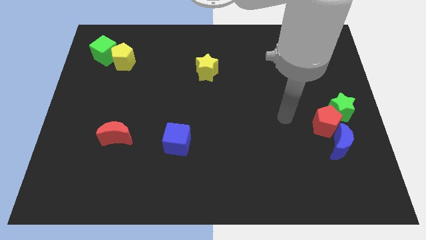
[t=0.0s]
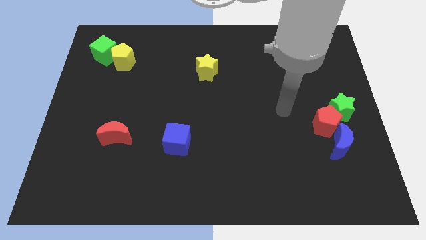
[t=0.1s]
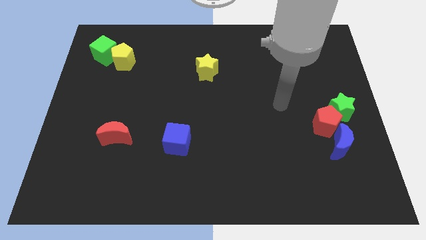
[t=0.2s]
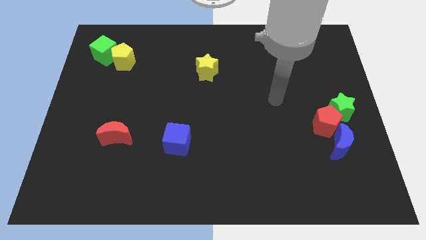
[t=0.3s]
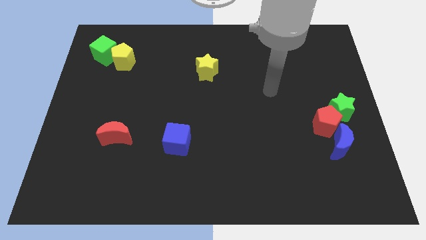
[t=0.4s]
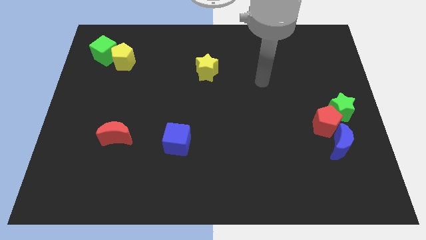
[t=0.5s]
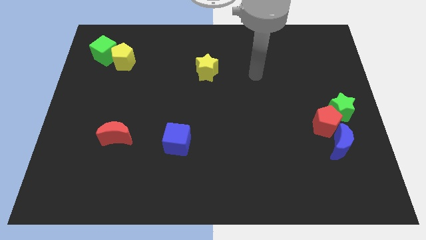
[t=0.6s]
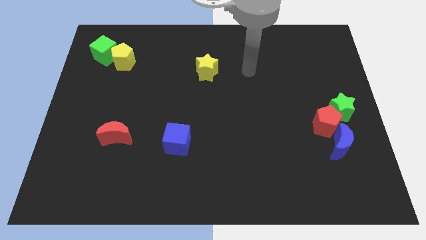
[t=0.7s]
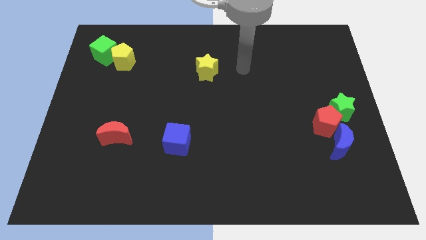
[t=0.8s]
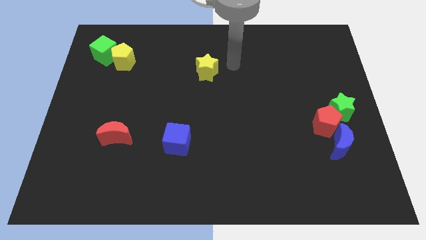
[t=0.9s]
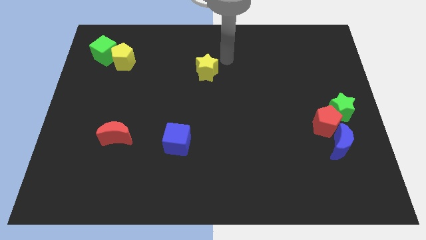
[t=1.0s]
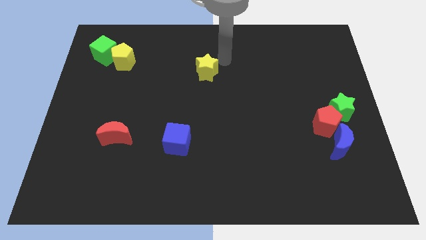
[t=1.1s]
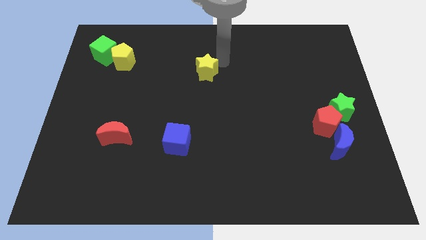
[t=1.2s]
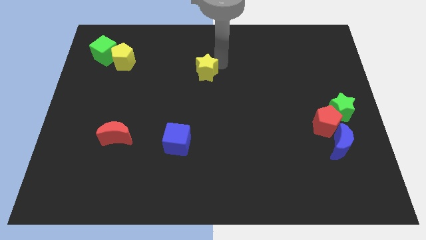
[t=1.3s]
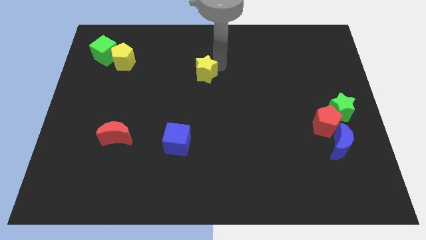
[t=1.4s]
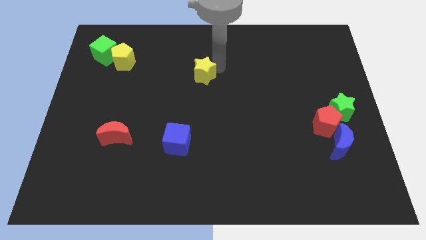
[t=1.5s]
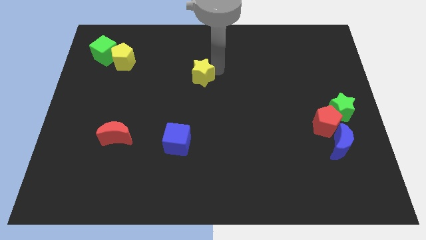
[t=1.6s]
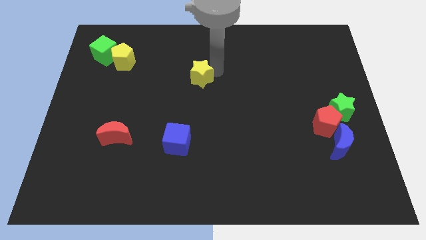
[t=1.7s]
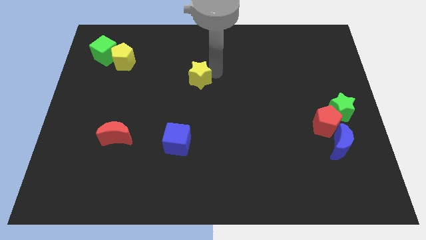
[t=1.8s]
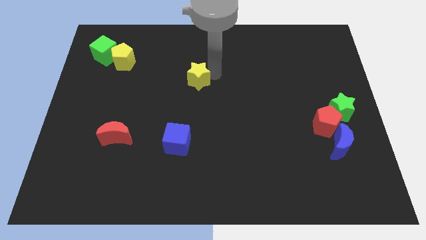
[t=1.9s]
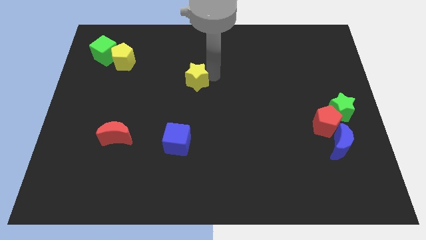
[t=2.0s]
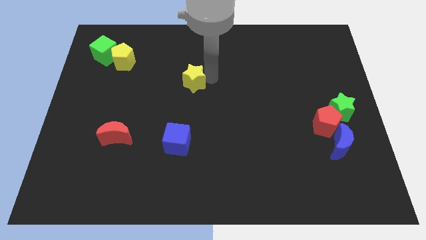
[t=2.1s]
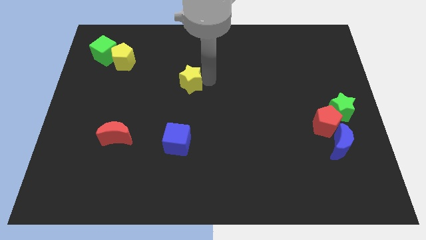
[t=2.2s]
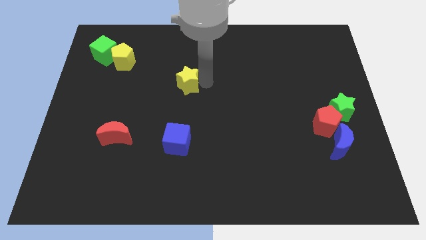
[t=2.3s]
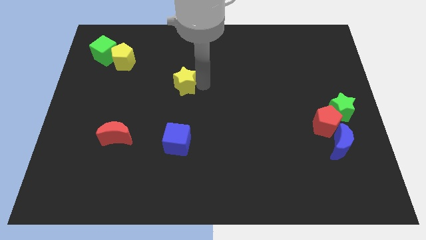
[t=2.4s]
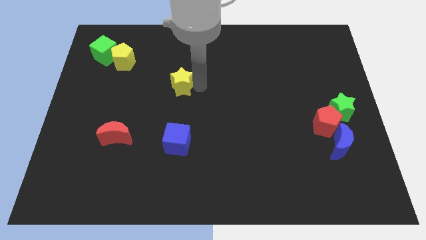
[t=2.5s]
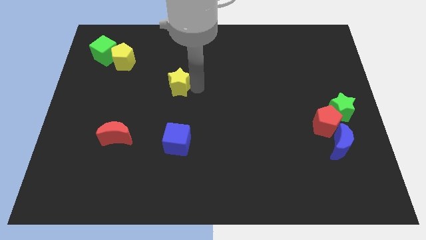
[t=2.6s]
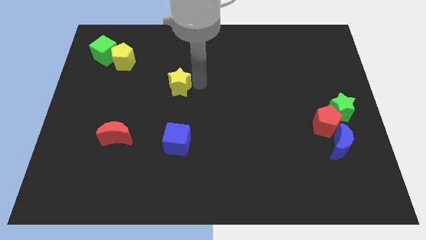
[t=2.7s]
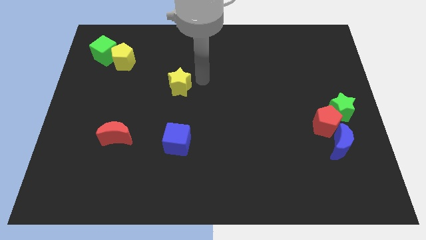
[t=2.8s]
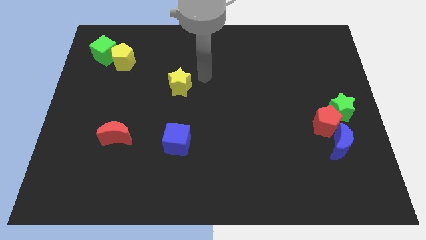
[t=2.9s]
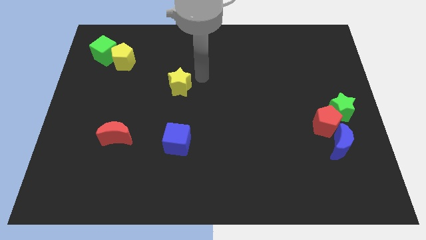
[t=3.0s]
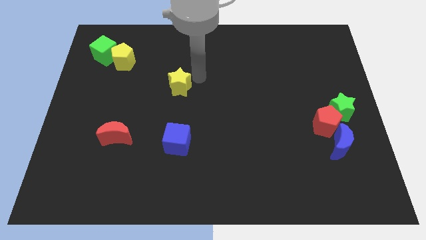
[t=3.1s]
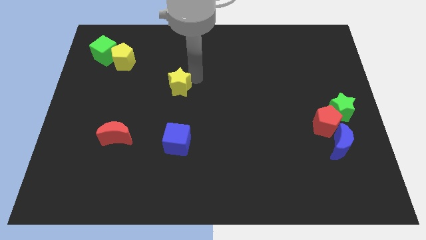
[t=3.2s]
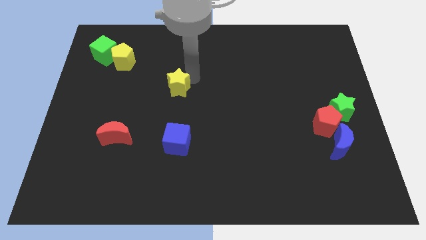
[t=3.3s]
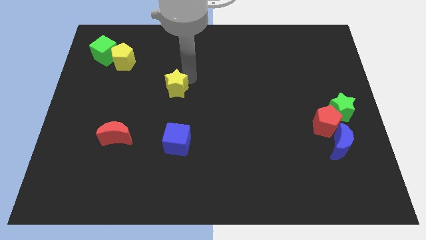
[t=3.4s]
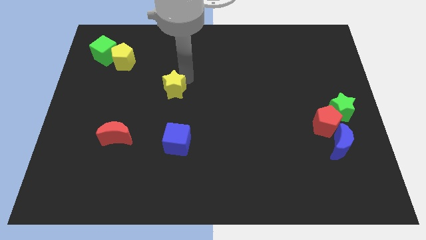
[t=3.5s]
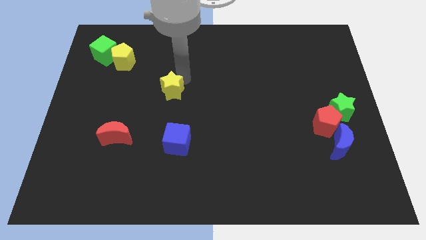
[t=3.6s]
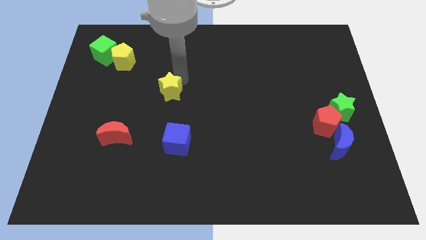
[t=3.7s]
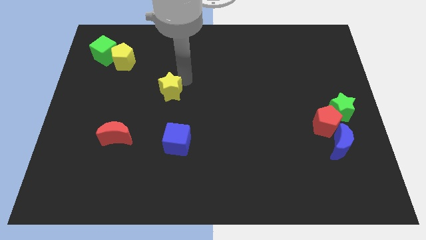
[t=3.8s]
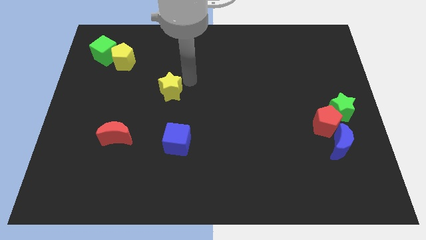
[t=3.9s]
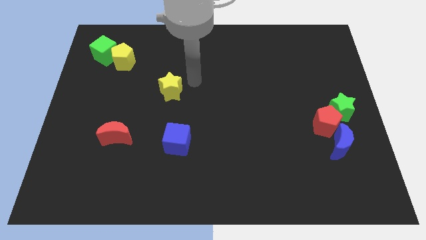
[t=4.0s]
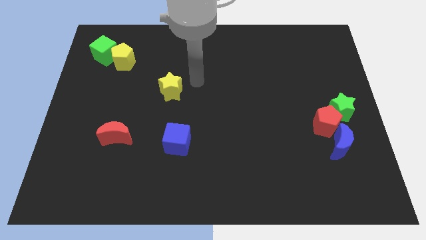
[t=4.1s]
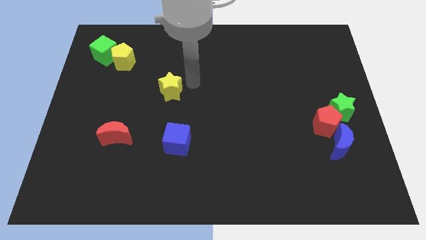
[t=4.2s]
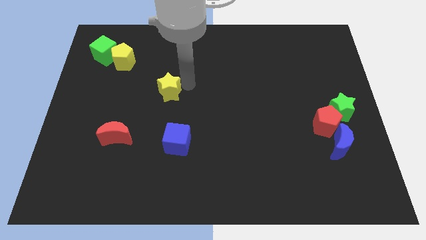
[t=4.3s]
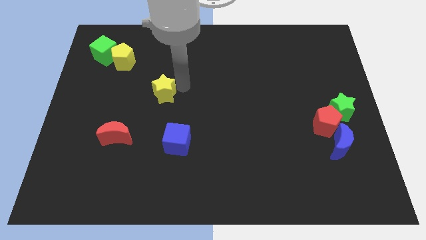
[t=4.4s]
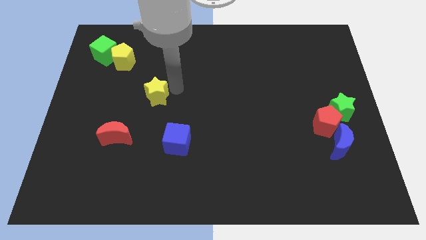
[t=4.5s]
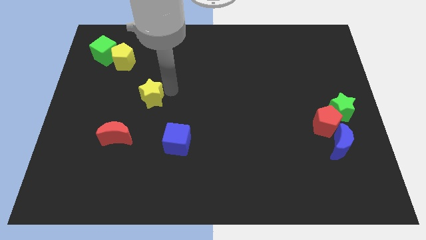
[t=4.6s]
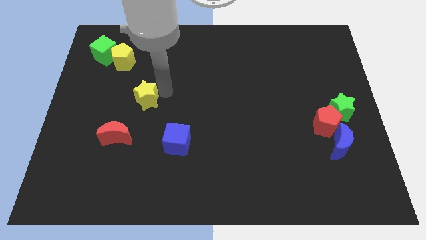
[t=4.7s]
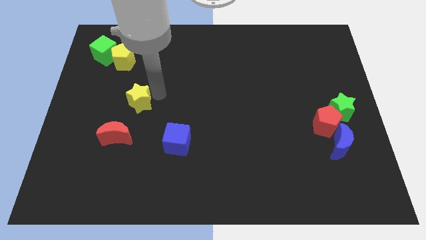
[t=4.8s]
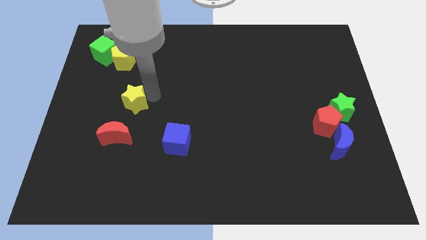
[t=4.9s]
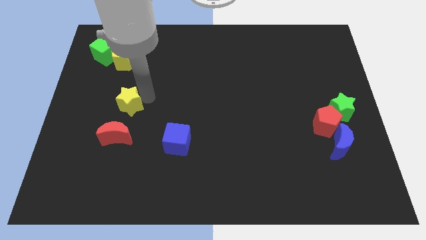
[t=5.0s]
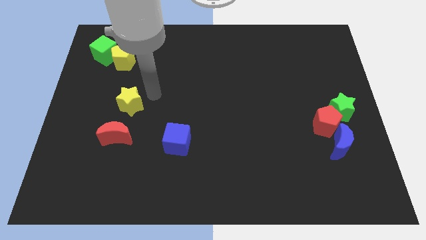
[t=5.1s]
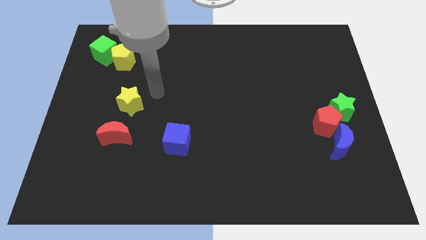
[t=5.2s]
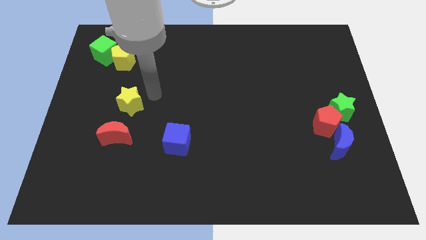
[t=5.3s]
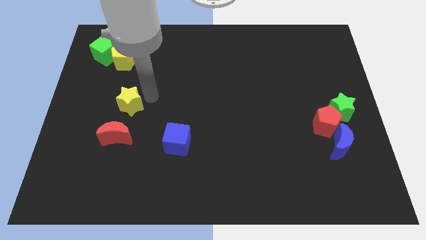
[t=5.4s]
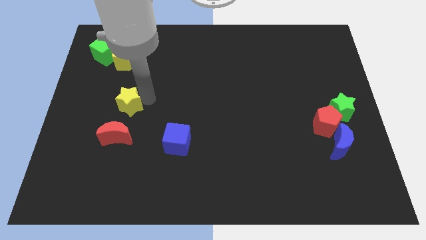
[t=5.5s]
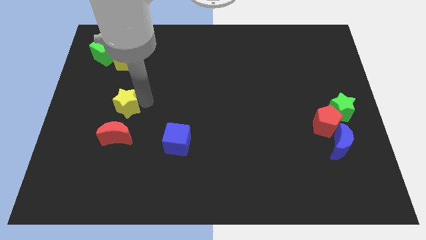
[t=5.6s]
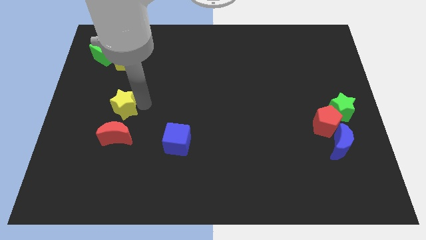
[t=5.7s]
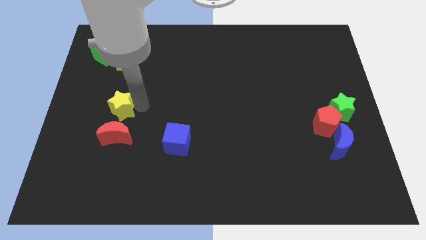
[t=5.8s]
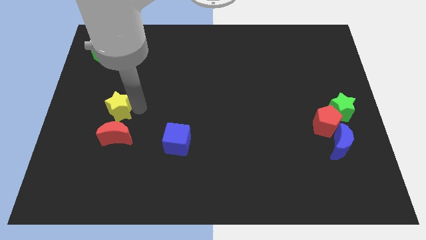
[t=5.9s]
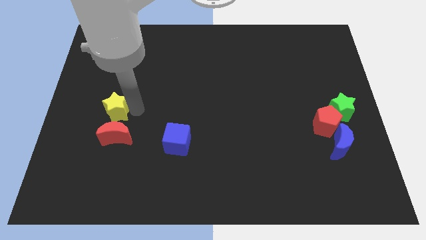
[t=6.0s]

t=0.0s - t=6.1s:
put the yellow star to the top left of the red moon

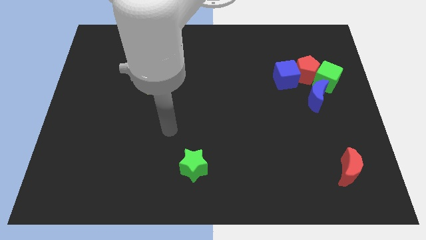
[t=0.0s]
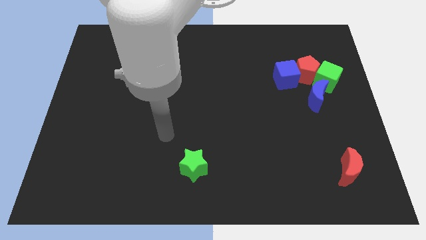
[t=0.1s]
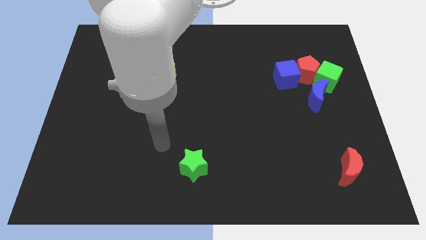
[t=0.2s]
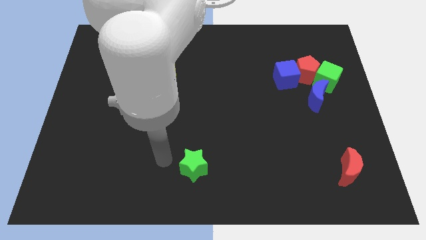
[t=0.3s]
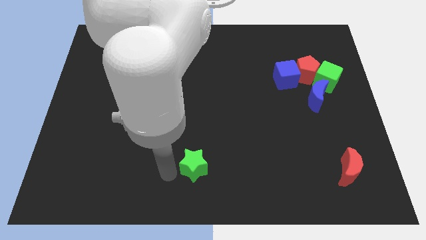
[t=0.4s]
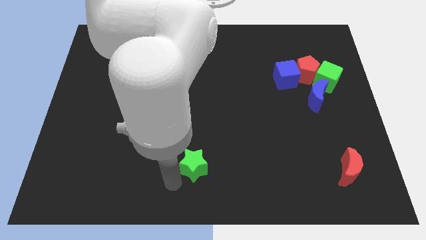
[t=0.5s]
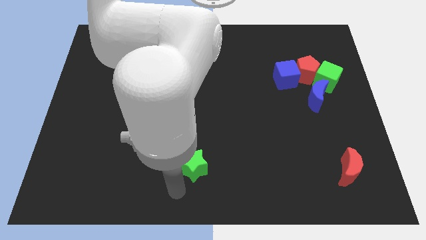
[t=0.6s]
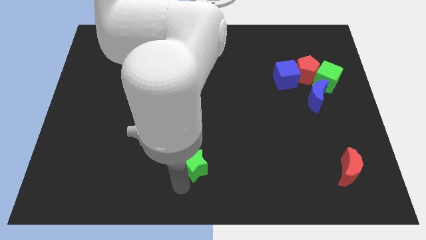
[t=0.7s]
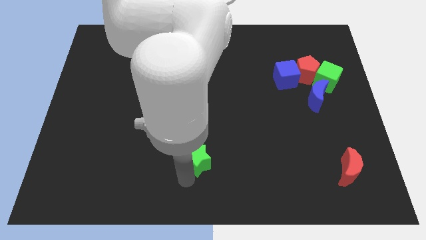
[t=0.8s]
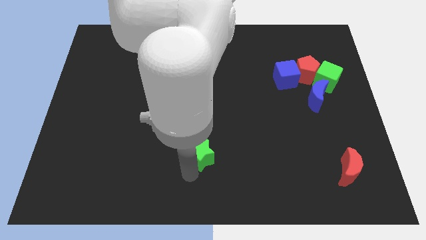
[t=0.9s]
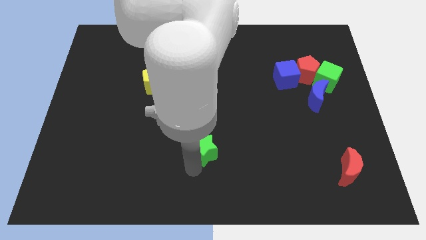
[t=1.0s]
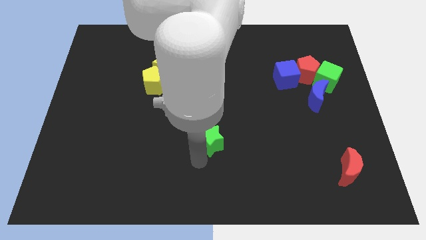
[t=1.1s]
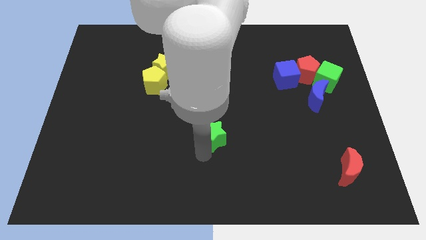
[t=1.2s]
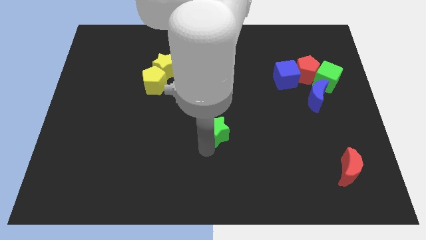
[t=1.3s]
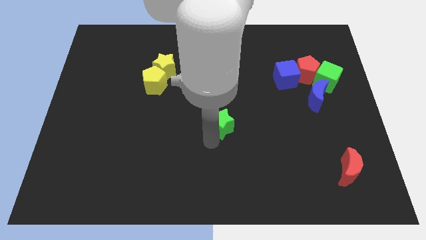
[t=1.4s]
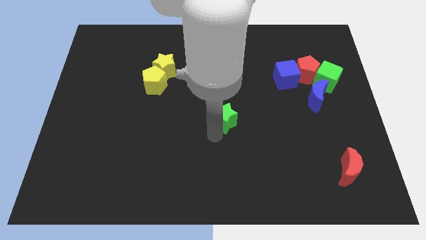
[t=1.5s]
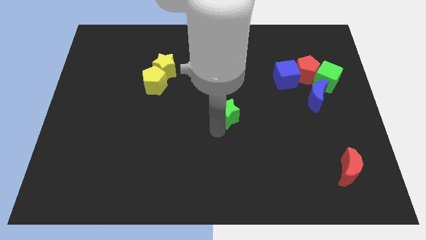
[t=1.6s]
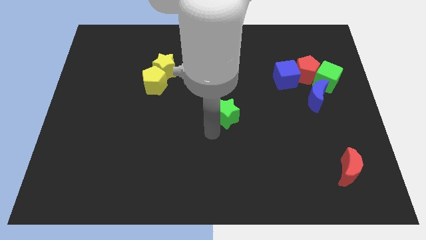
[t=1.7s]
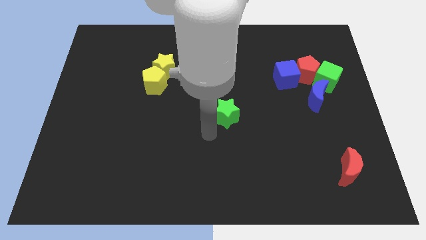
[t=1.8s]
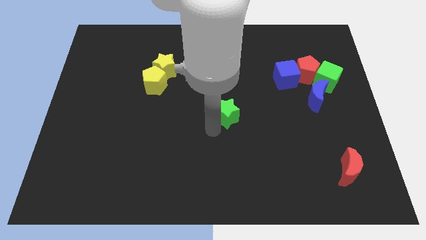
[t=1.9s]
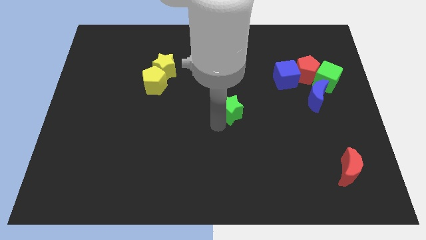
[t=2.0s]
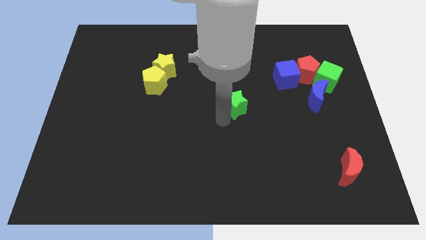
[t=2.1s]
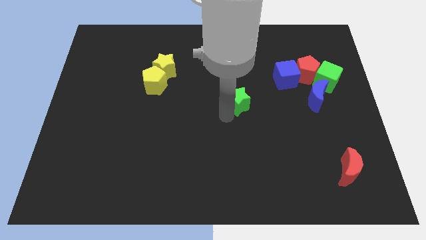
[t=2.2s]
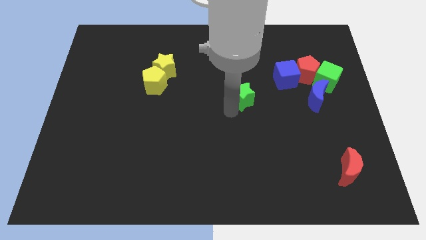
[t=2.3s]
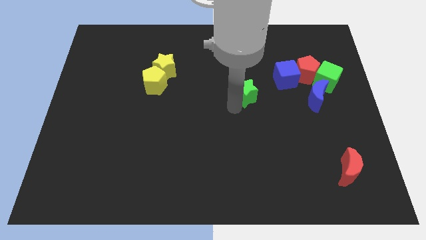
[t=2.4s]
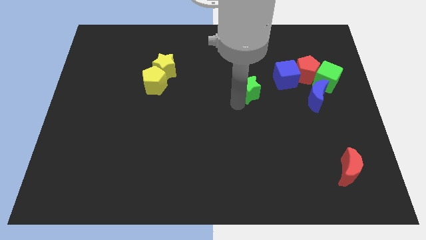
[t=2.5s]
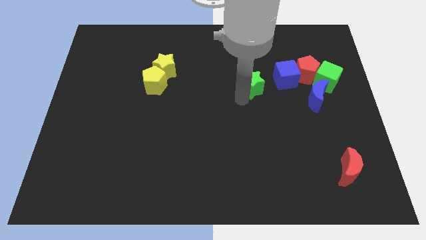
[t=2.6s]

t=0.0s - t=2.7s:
push the green star to the left of the red pentagon
